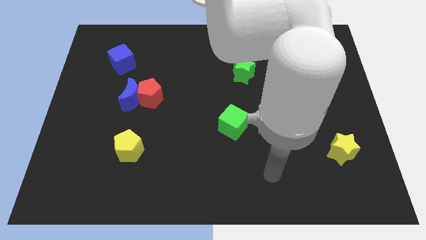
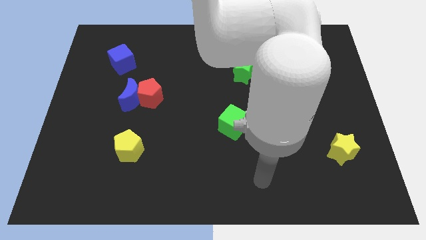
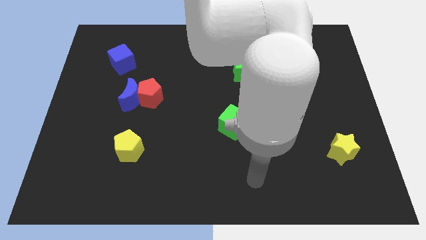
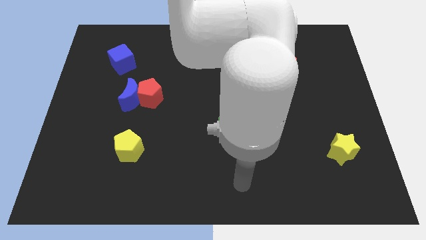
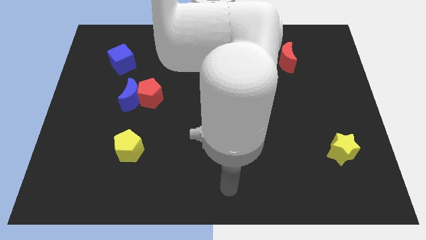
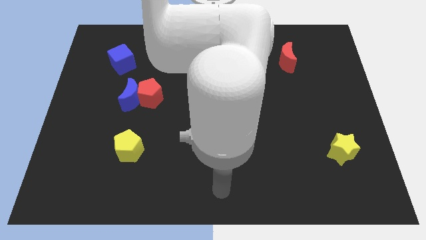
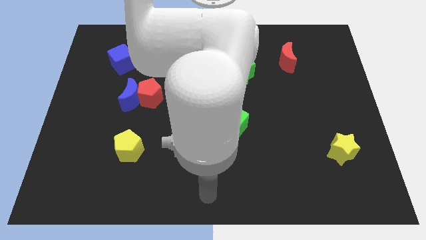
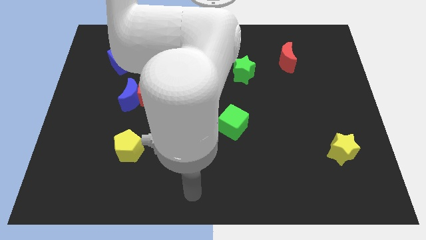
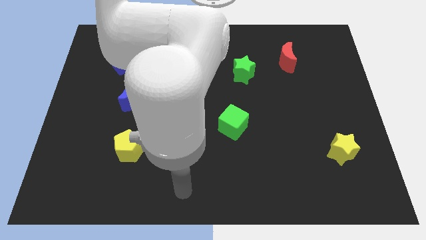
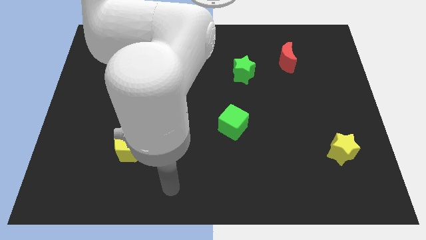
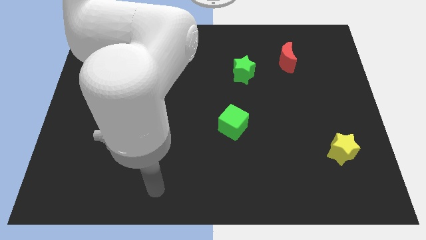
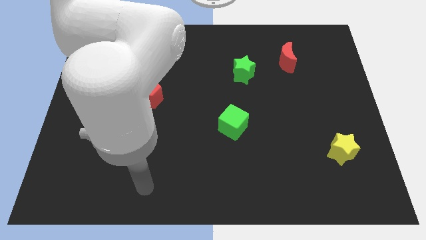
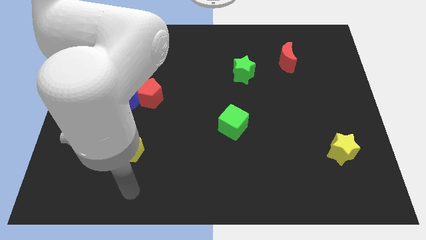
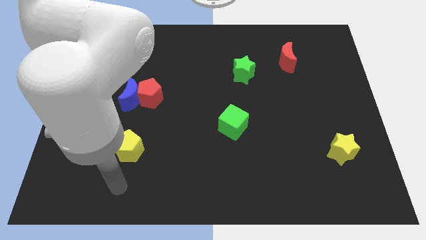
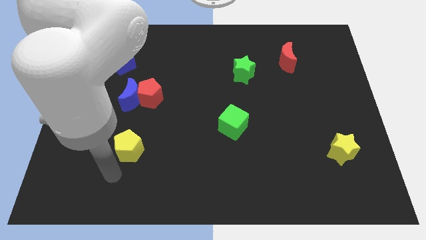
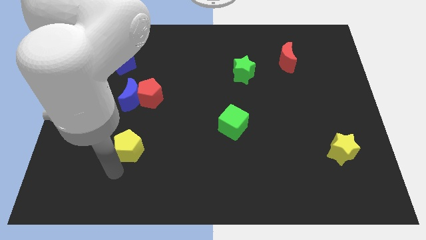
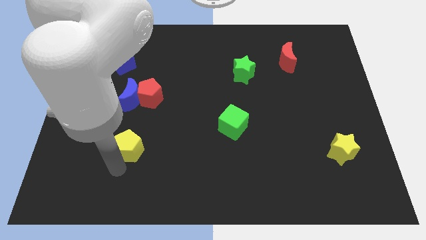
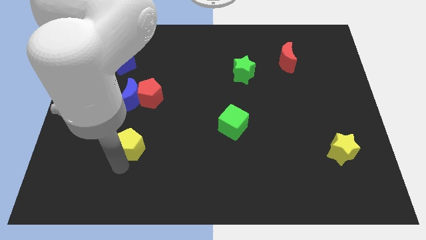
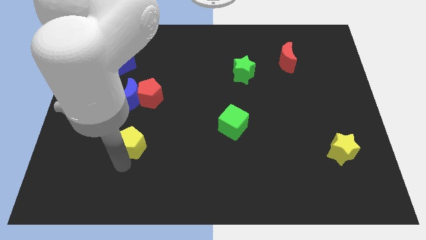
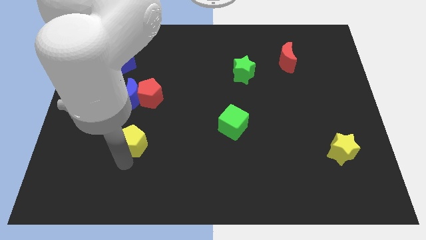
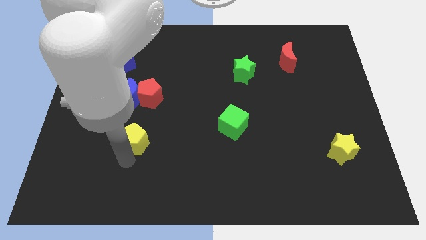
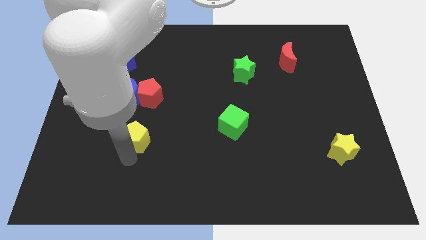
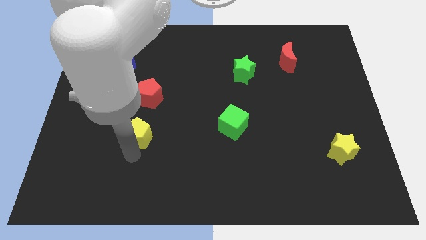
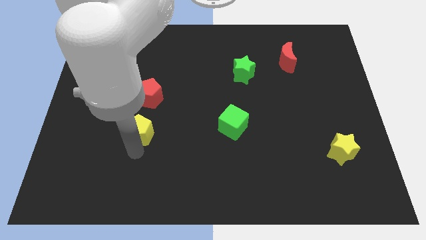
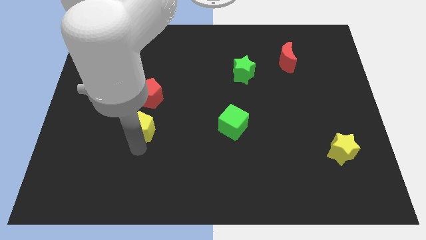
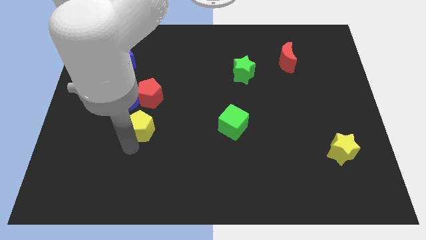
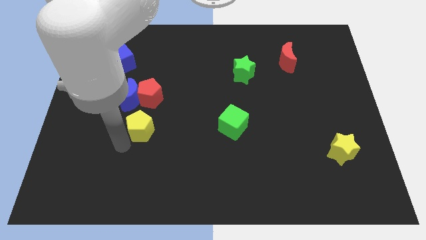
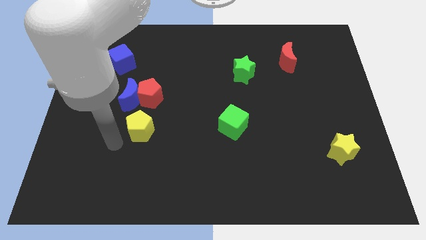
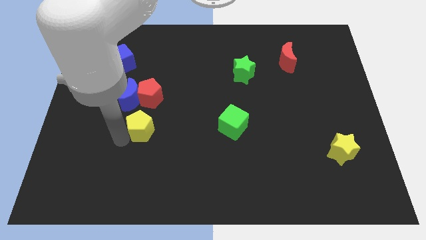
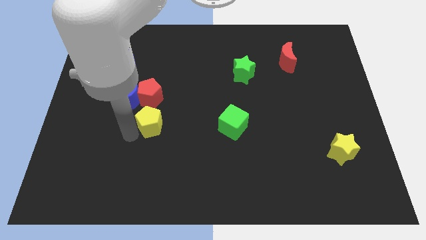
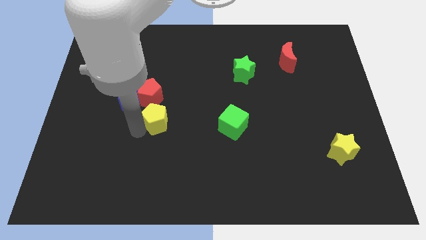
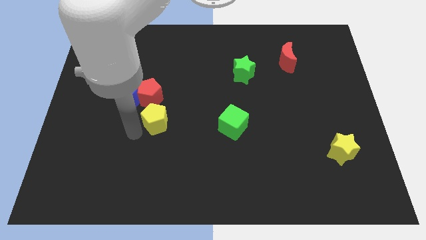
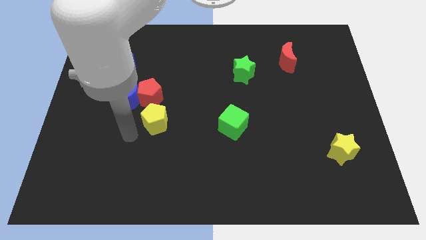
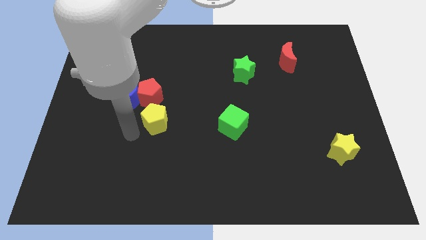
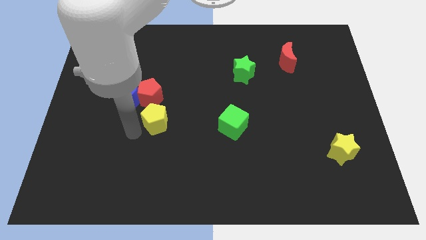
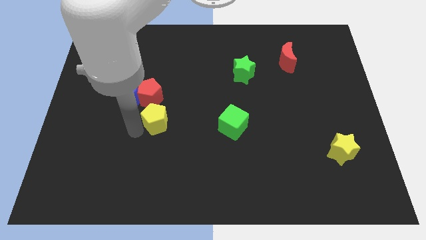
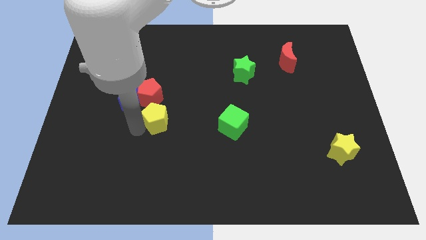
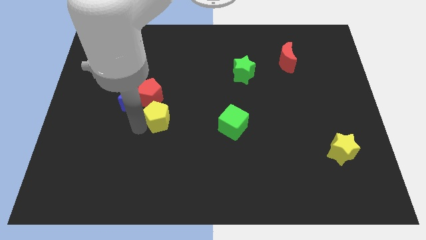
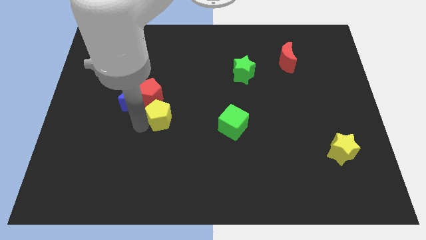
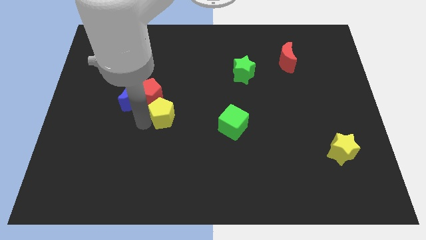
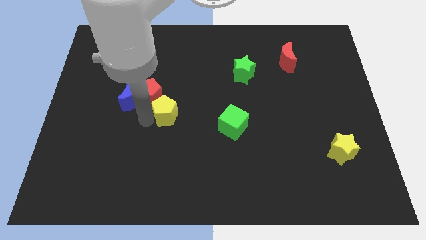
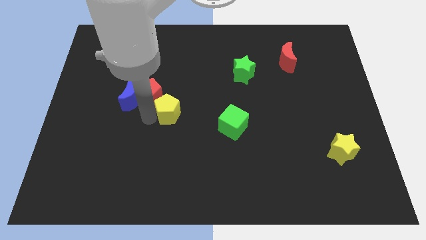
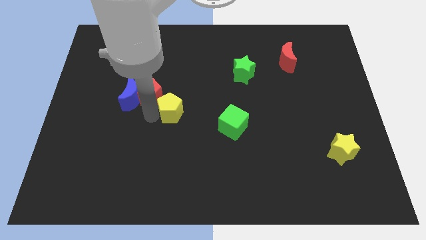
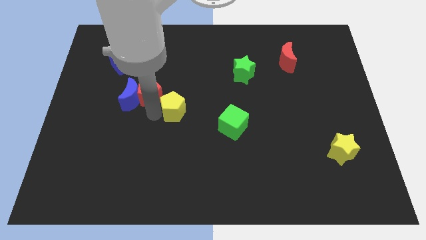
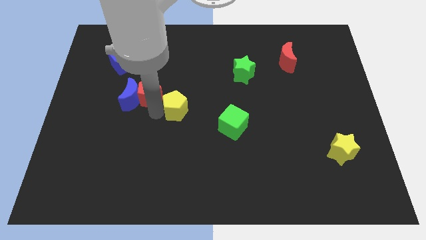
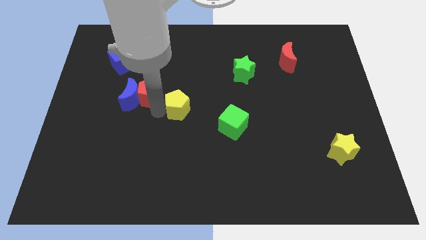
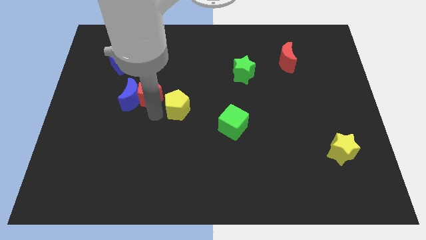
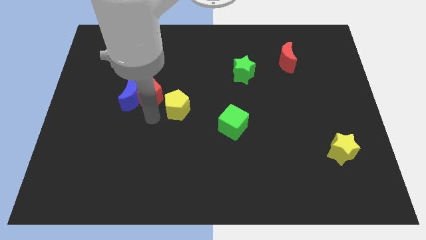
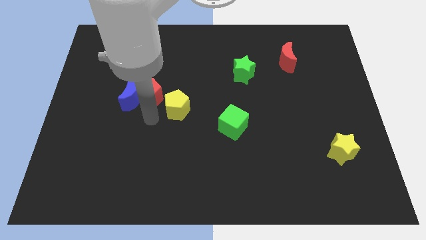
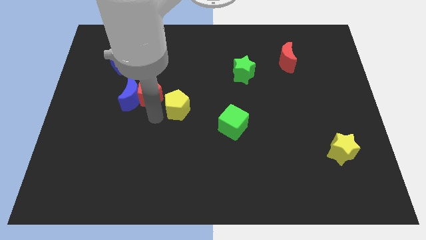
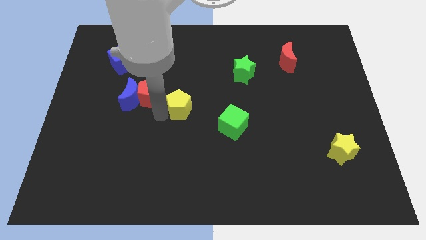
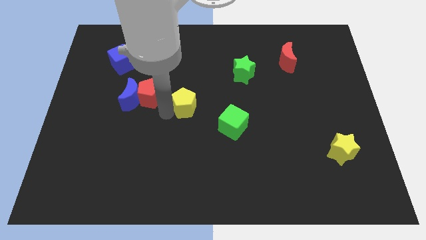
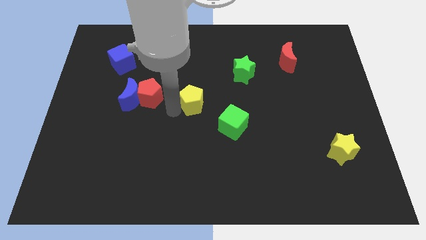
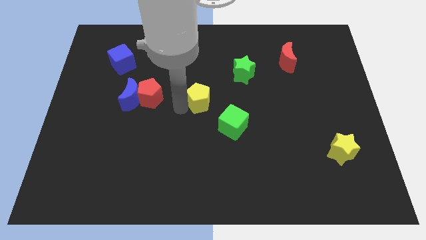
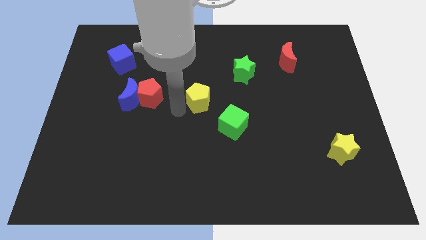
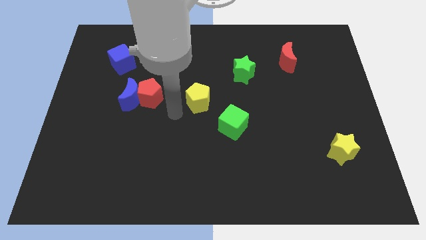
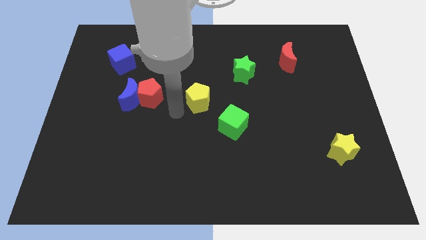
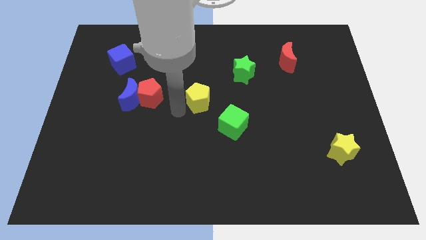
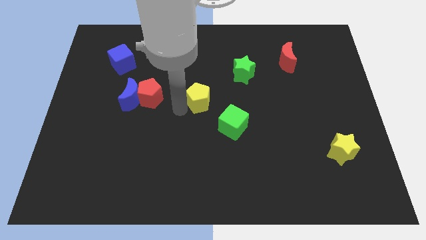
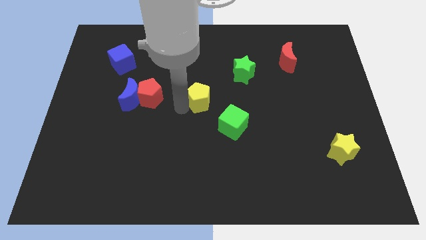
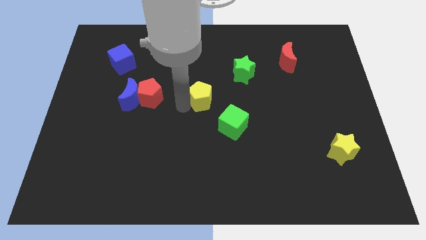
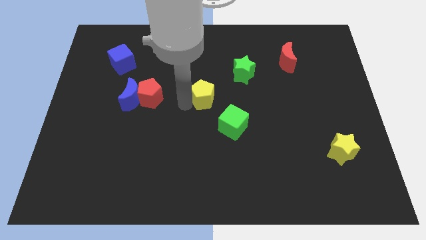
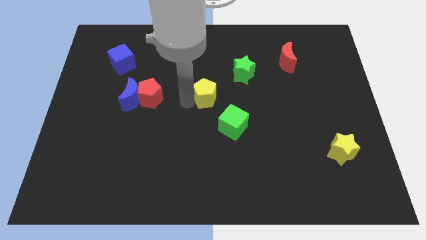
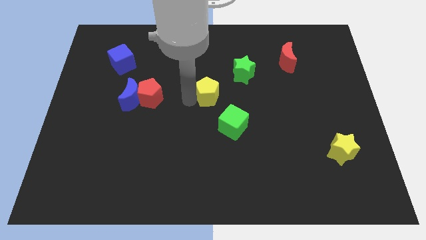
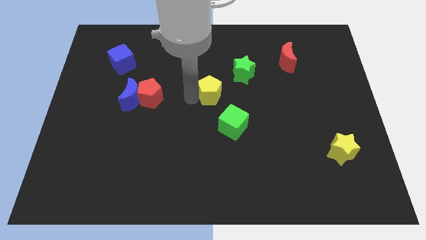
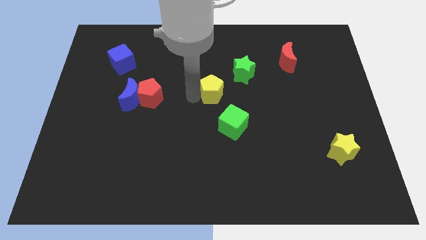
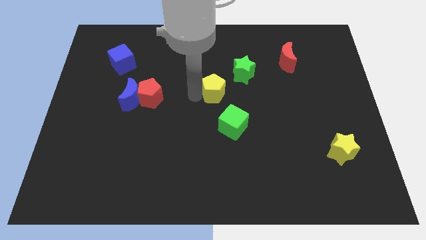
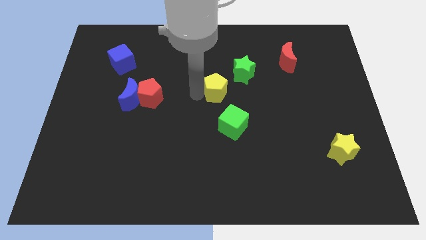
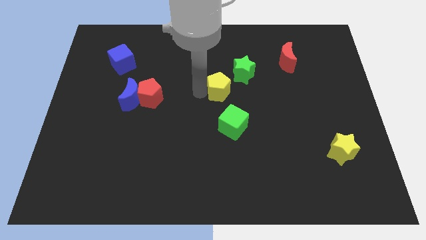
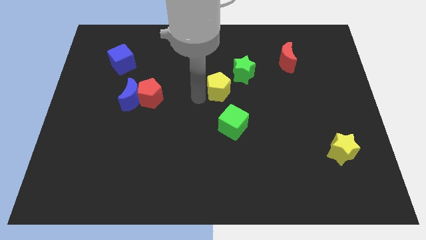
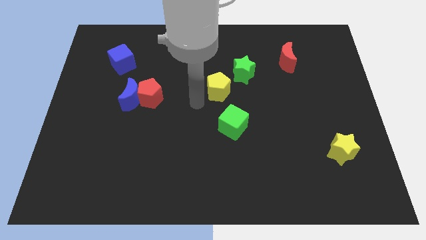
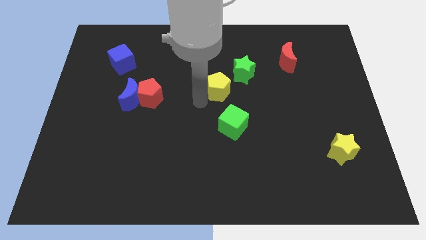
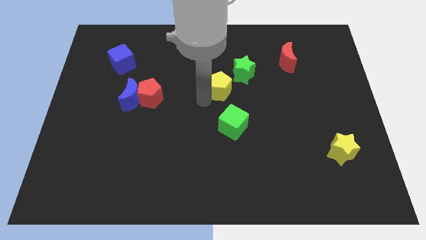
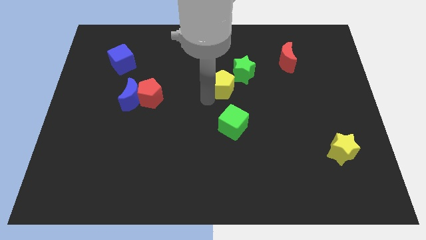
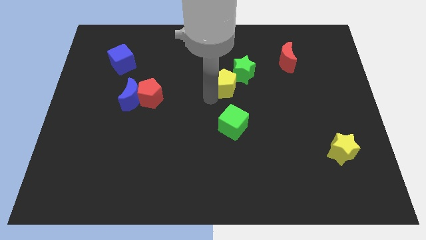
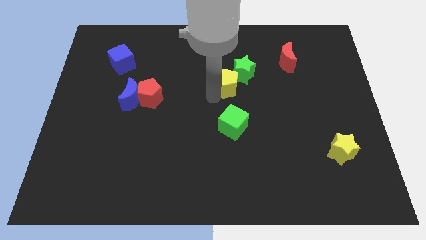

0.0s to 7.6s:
put the yellow pentagon towards the green star
